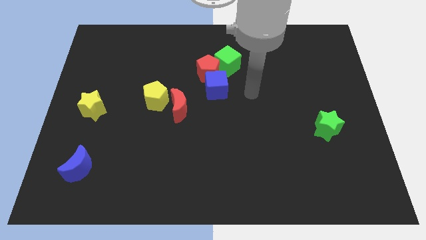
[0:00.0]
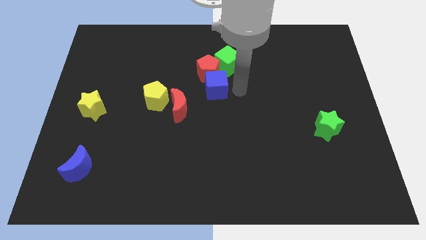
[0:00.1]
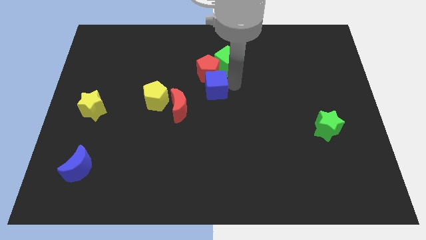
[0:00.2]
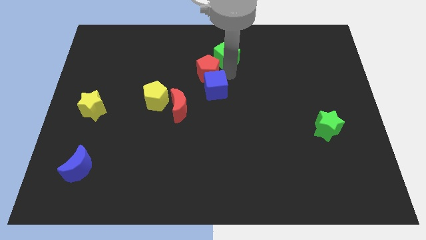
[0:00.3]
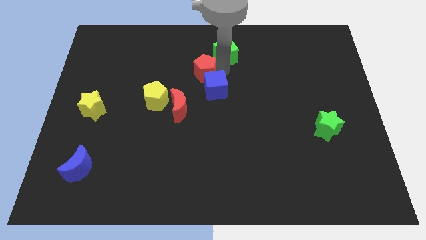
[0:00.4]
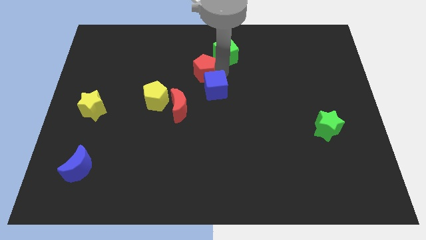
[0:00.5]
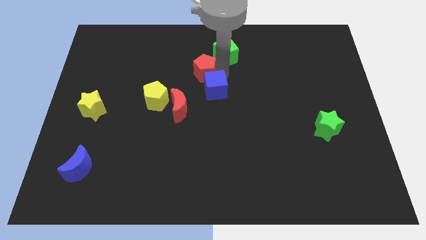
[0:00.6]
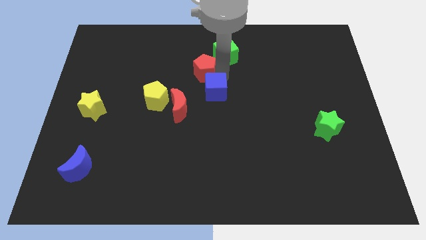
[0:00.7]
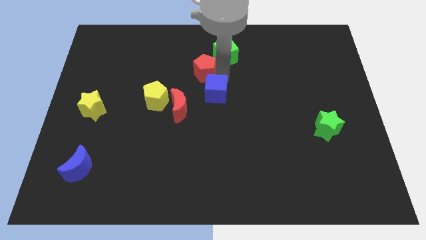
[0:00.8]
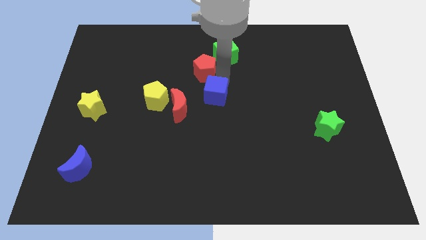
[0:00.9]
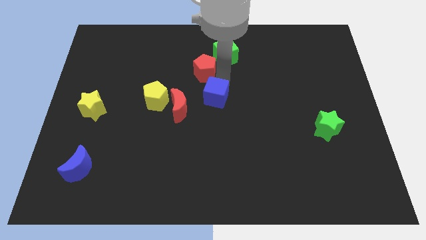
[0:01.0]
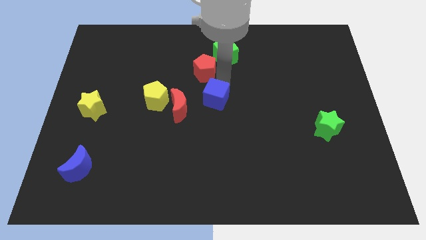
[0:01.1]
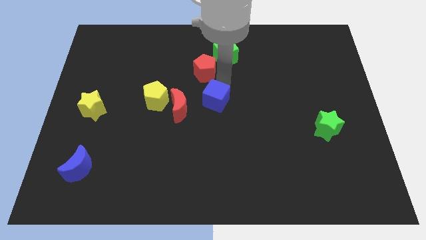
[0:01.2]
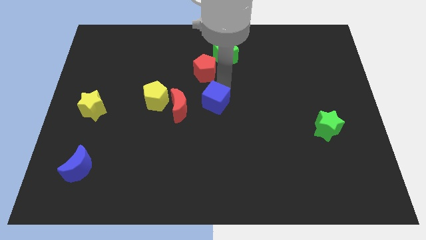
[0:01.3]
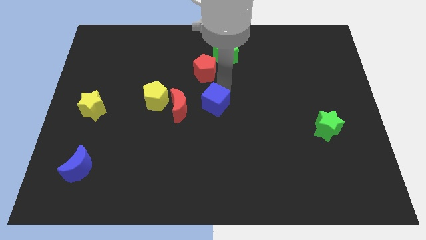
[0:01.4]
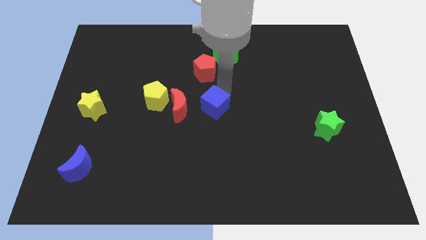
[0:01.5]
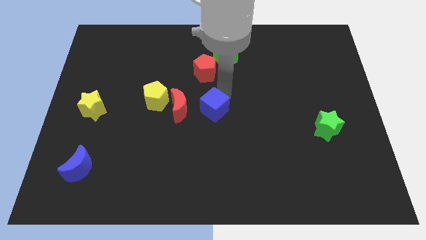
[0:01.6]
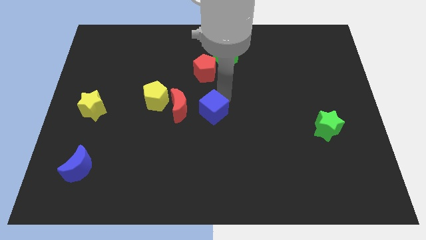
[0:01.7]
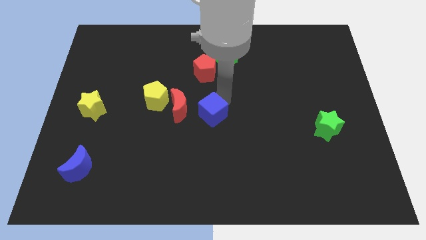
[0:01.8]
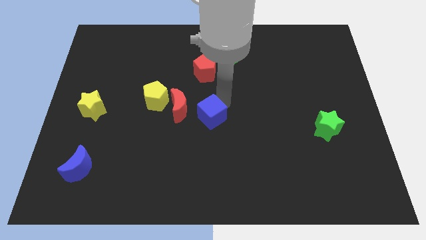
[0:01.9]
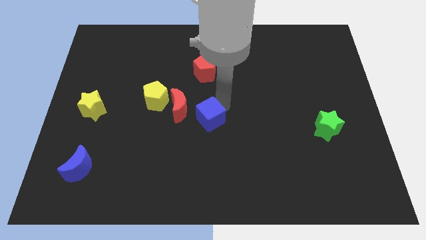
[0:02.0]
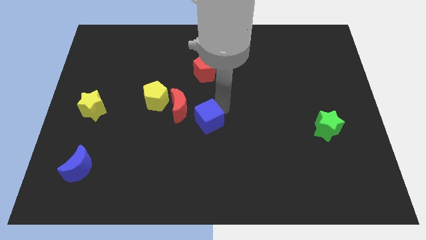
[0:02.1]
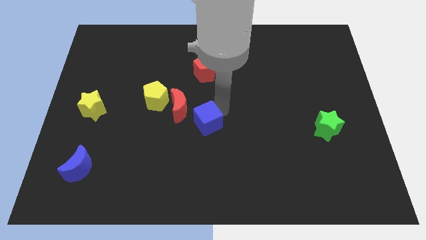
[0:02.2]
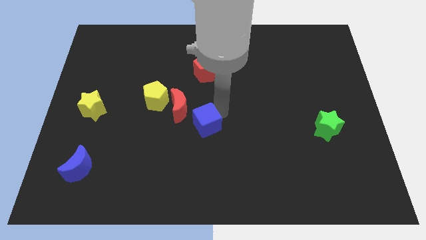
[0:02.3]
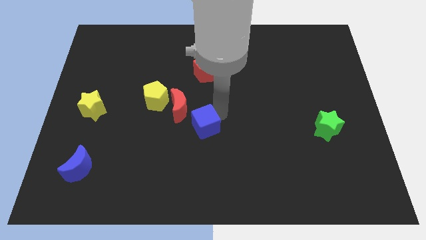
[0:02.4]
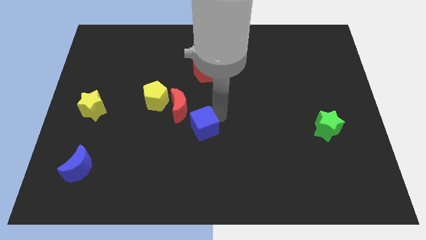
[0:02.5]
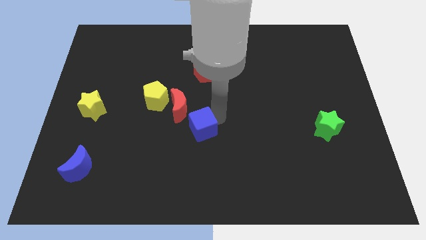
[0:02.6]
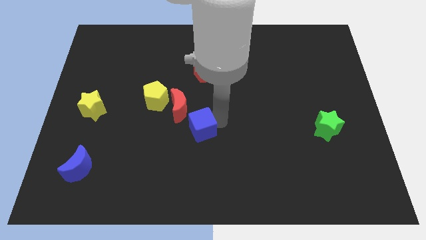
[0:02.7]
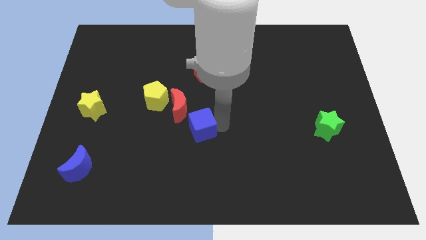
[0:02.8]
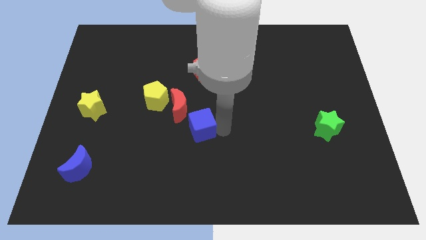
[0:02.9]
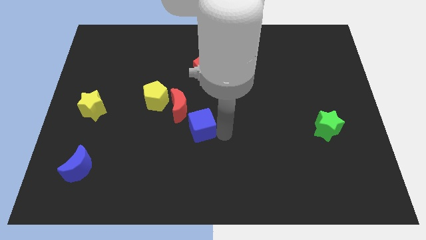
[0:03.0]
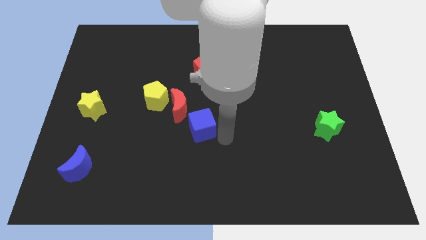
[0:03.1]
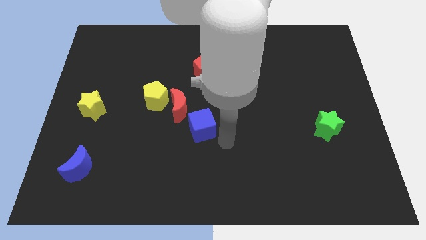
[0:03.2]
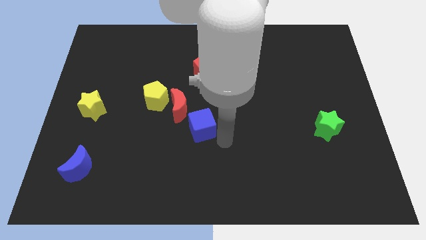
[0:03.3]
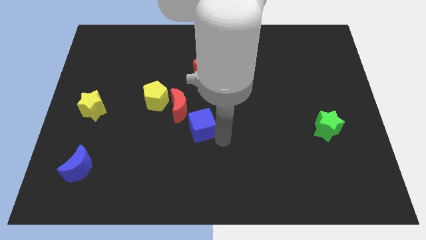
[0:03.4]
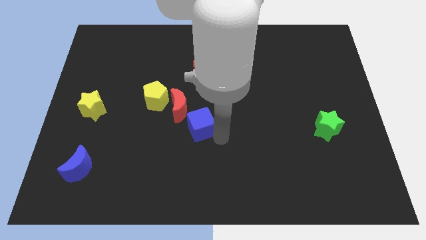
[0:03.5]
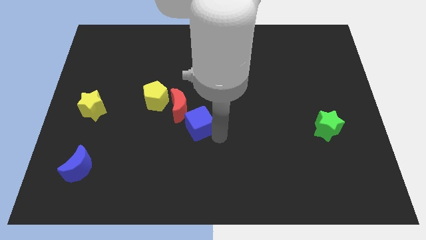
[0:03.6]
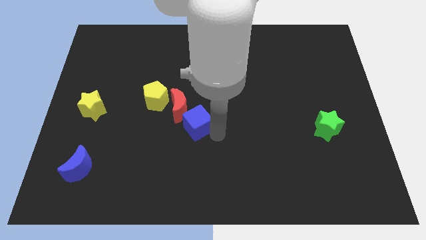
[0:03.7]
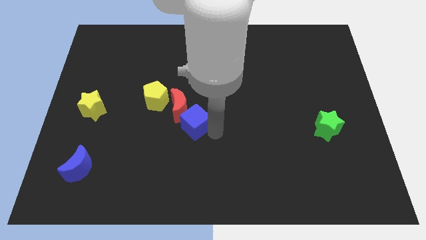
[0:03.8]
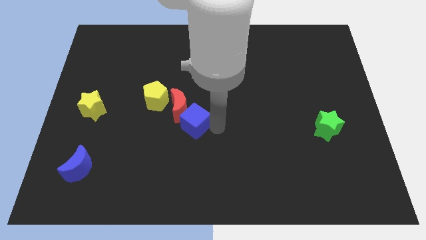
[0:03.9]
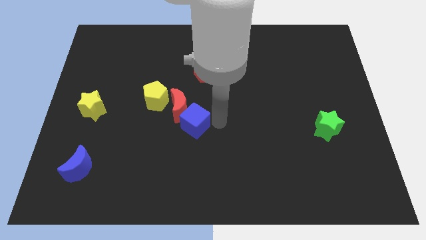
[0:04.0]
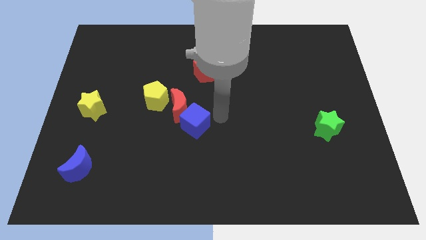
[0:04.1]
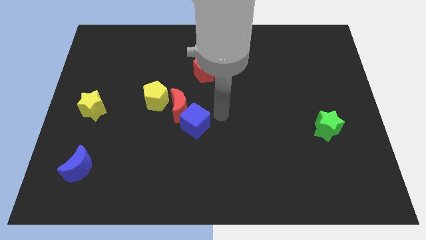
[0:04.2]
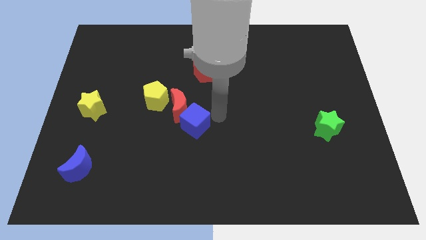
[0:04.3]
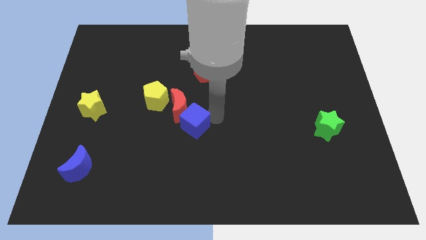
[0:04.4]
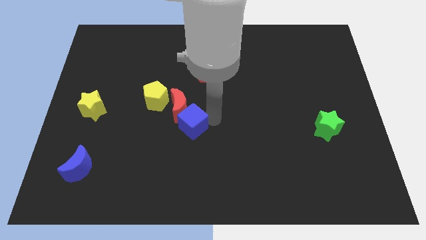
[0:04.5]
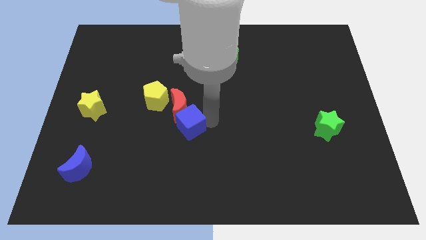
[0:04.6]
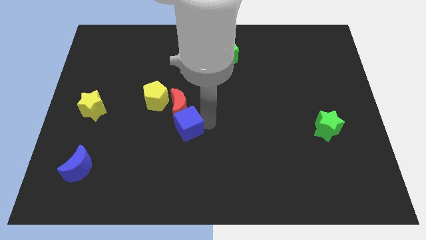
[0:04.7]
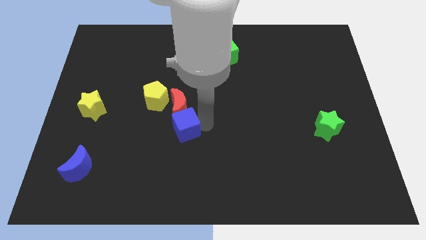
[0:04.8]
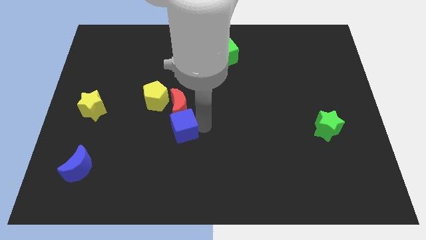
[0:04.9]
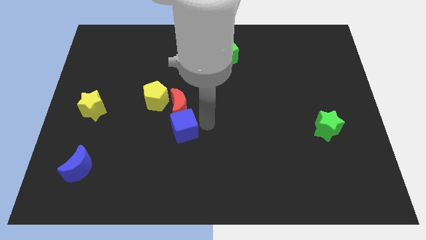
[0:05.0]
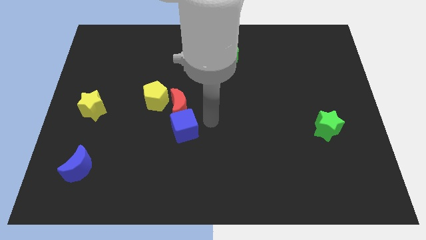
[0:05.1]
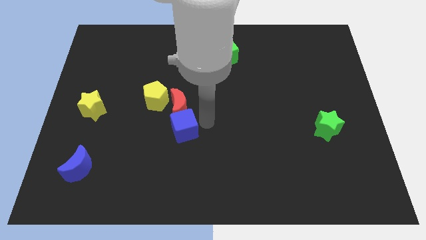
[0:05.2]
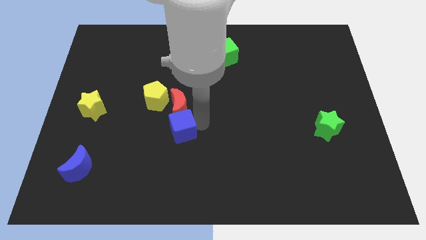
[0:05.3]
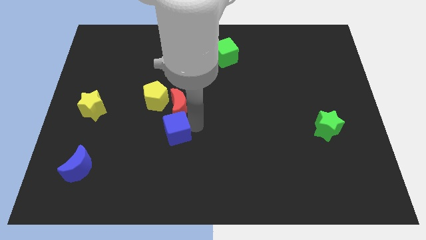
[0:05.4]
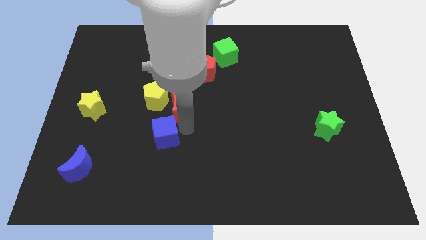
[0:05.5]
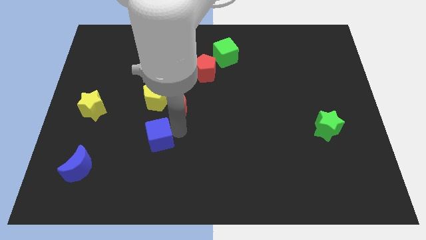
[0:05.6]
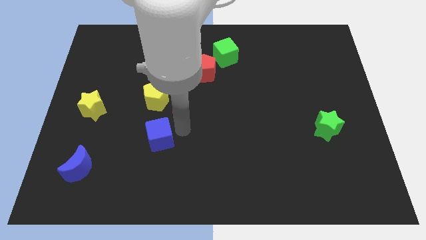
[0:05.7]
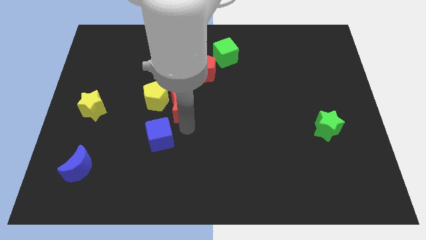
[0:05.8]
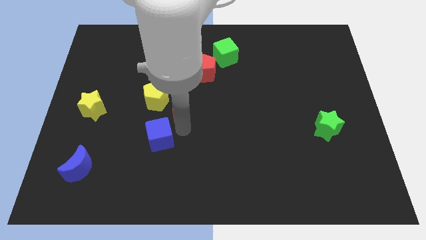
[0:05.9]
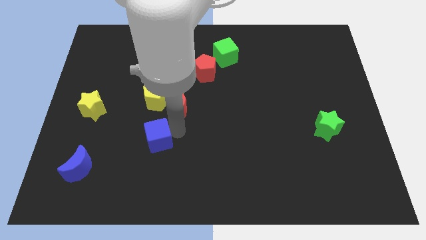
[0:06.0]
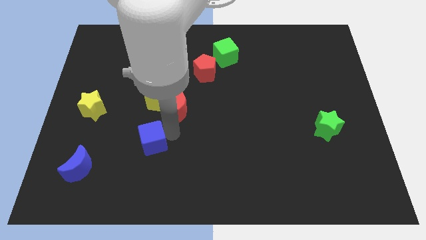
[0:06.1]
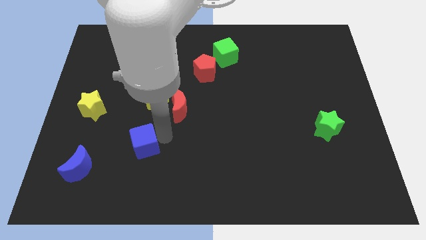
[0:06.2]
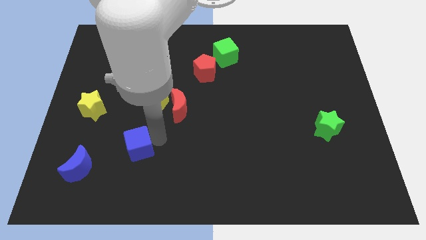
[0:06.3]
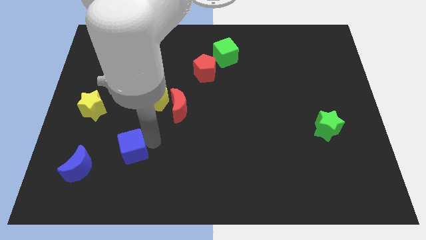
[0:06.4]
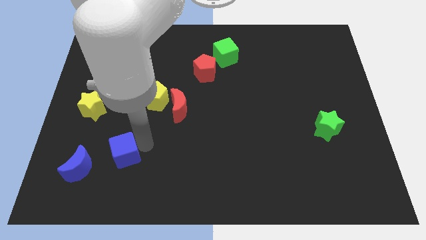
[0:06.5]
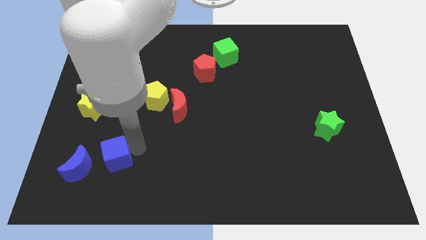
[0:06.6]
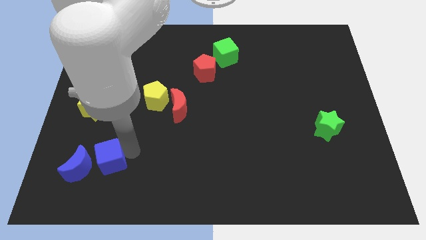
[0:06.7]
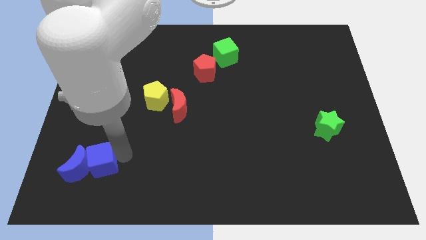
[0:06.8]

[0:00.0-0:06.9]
put the blue cube close to the blue moon
